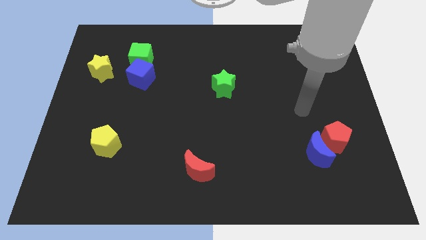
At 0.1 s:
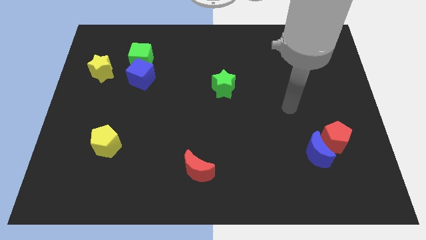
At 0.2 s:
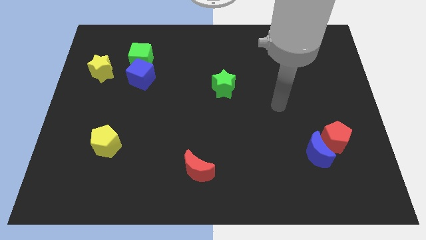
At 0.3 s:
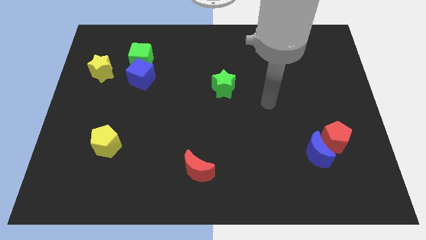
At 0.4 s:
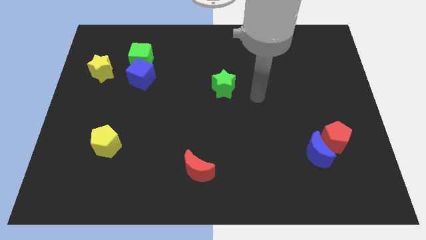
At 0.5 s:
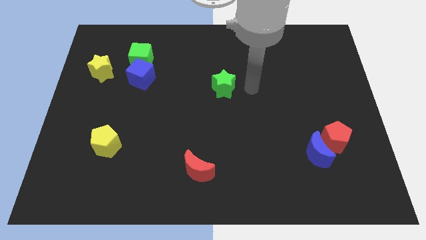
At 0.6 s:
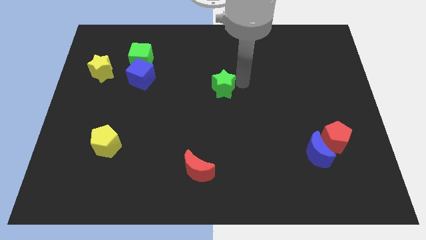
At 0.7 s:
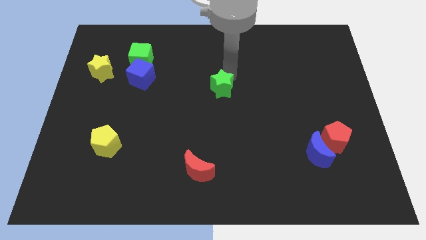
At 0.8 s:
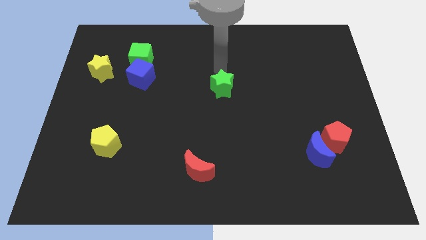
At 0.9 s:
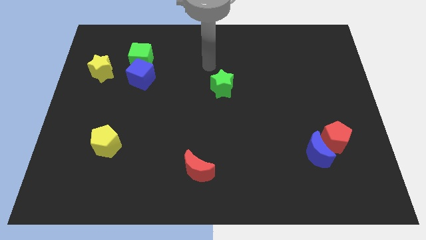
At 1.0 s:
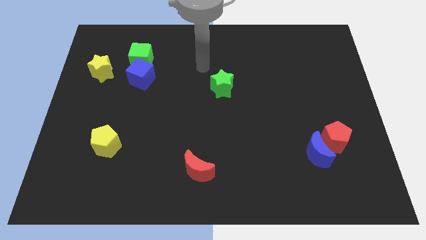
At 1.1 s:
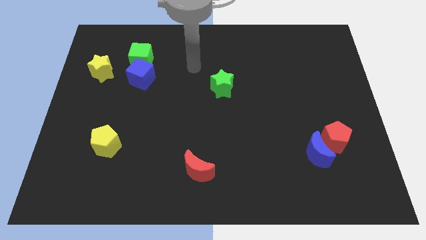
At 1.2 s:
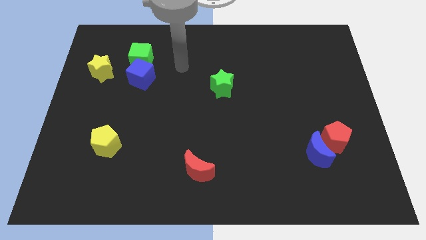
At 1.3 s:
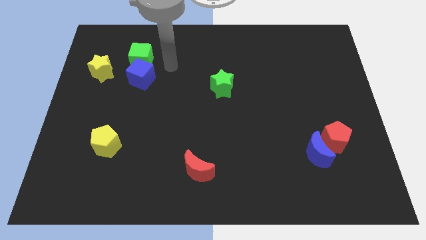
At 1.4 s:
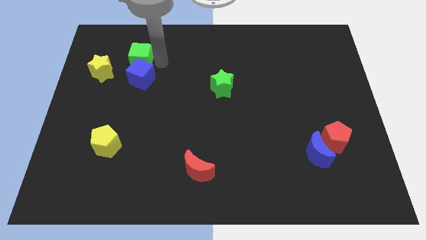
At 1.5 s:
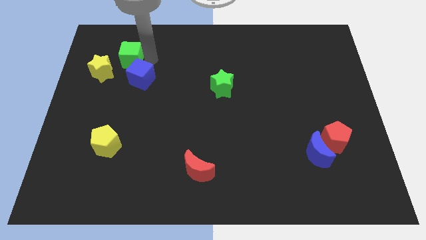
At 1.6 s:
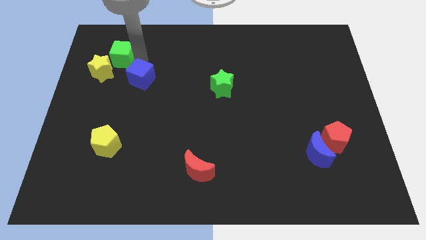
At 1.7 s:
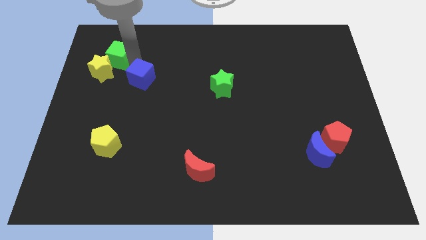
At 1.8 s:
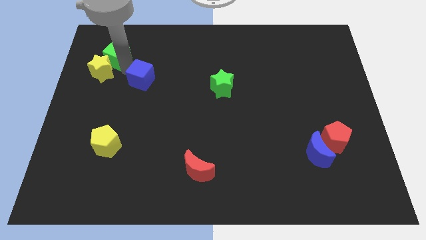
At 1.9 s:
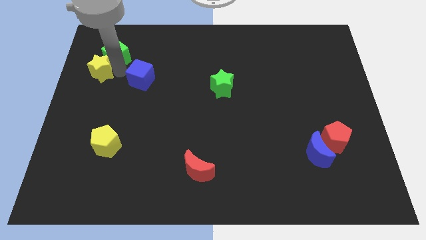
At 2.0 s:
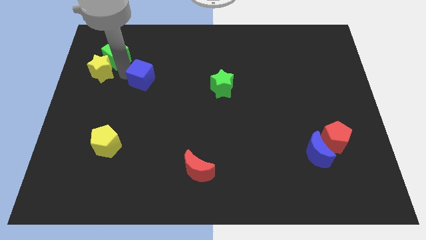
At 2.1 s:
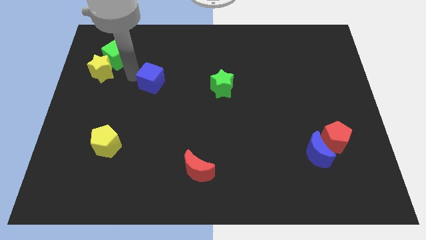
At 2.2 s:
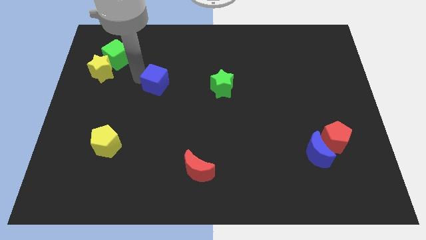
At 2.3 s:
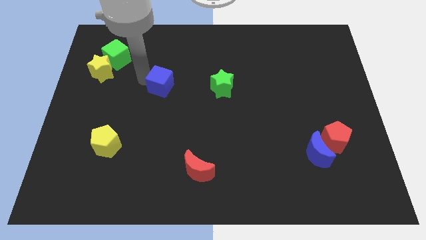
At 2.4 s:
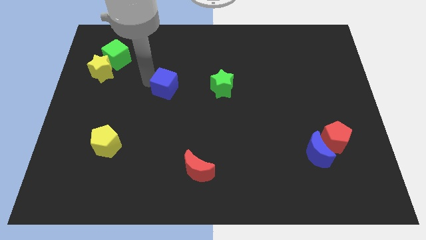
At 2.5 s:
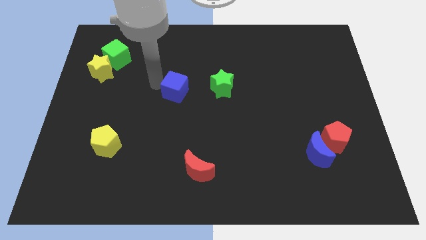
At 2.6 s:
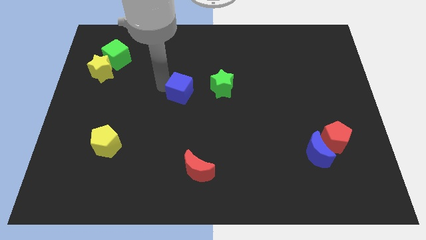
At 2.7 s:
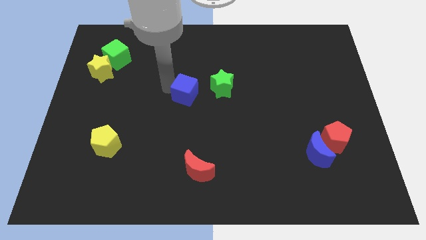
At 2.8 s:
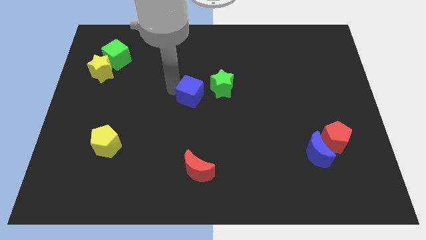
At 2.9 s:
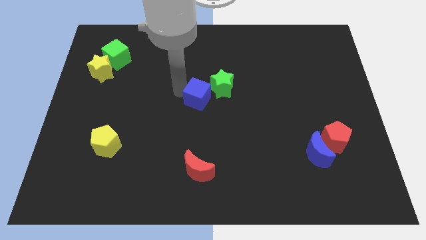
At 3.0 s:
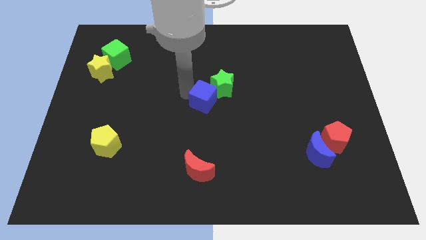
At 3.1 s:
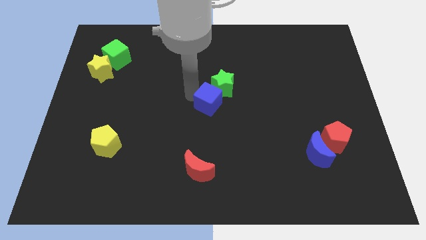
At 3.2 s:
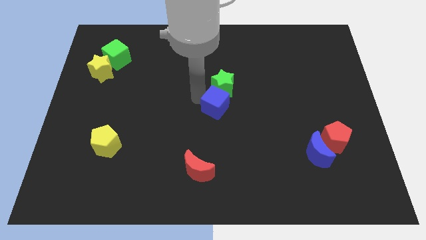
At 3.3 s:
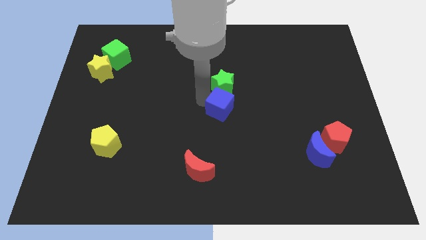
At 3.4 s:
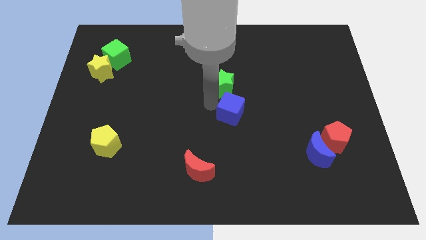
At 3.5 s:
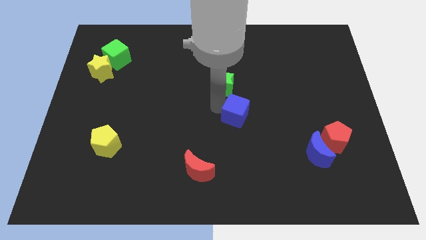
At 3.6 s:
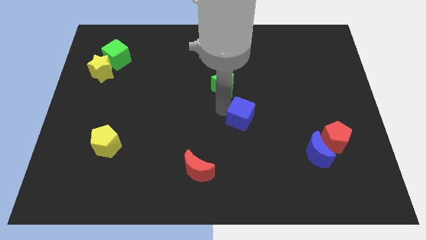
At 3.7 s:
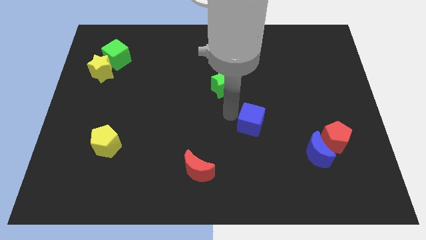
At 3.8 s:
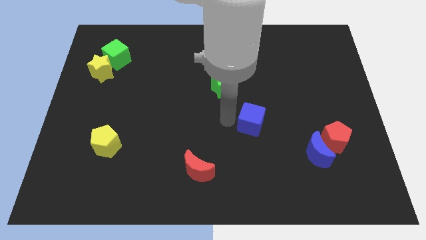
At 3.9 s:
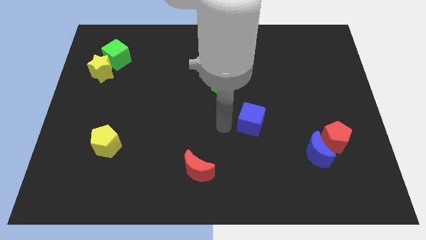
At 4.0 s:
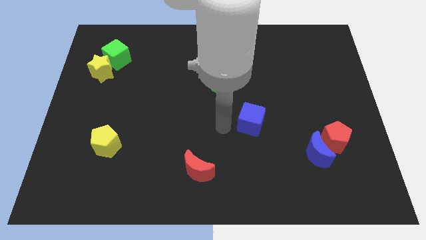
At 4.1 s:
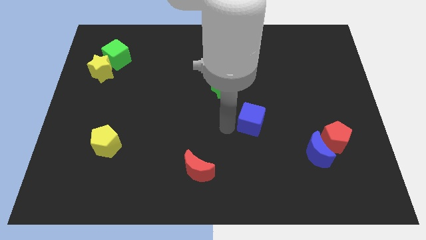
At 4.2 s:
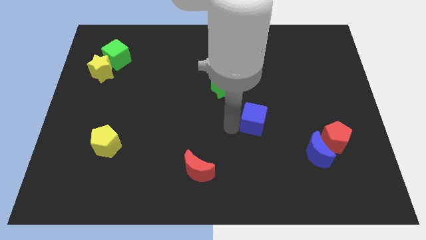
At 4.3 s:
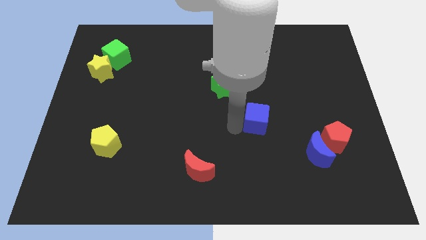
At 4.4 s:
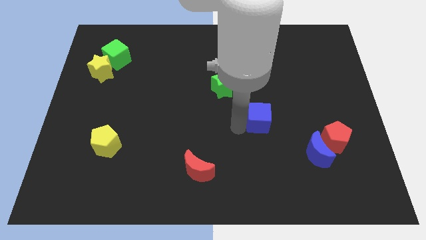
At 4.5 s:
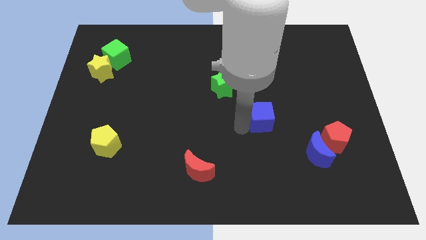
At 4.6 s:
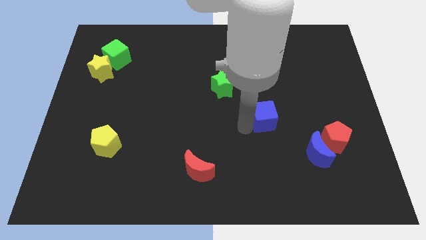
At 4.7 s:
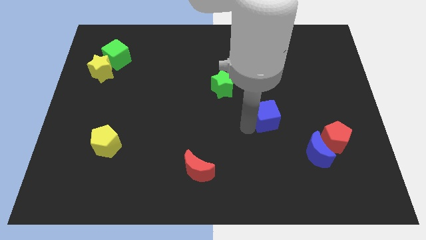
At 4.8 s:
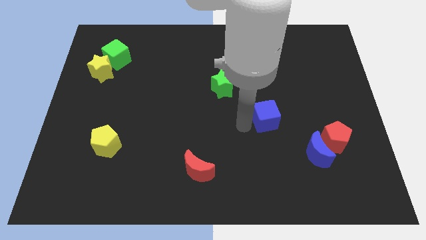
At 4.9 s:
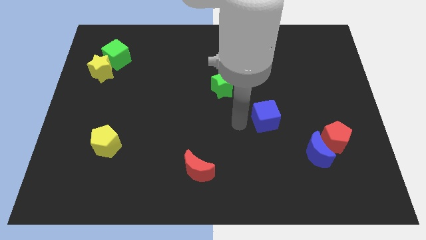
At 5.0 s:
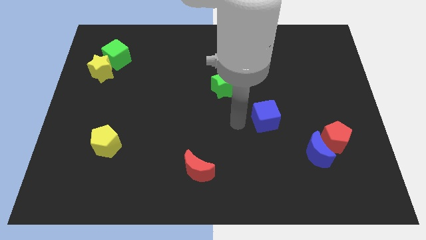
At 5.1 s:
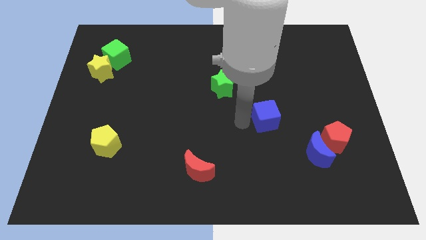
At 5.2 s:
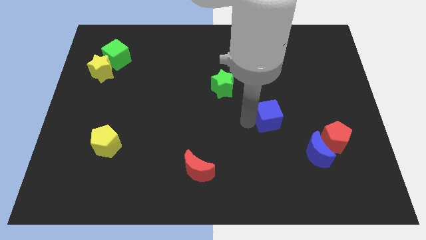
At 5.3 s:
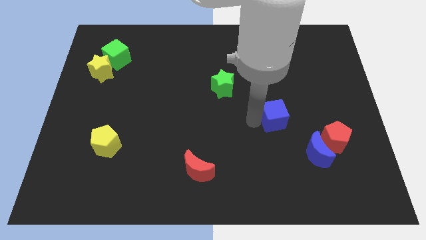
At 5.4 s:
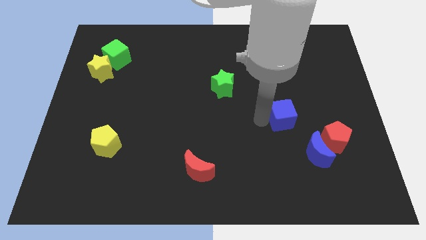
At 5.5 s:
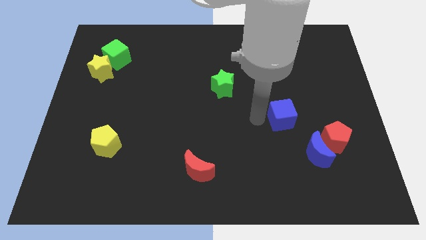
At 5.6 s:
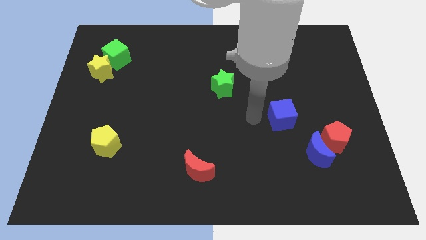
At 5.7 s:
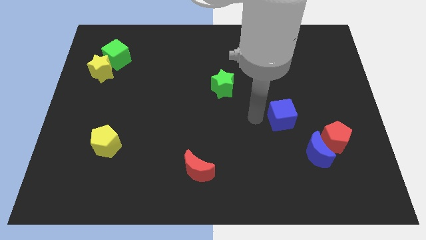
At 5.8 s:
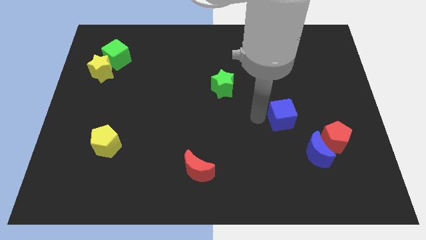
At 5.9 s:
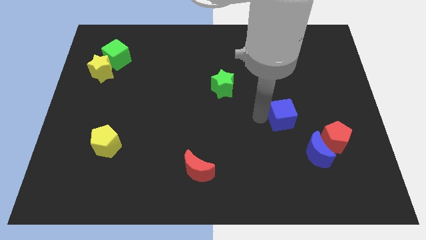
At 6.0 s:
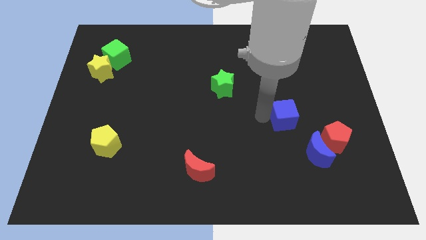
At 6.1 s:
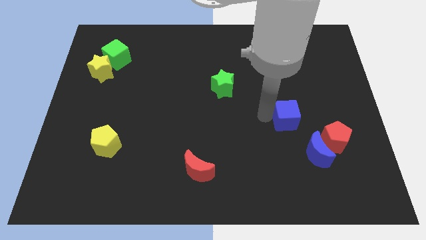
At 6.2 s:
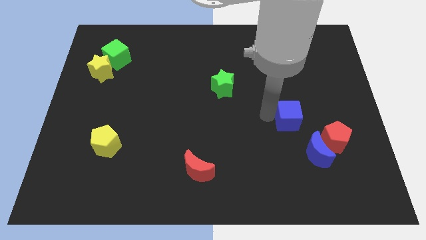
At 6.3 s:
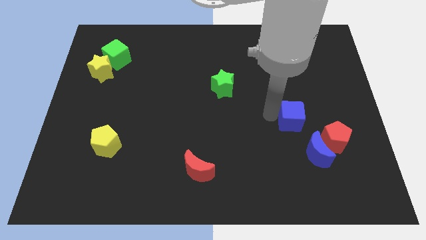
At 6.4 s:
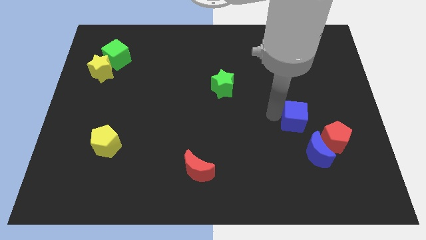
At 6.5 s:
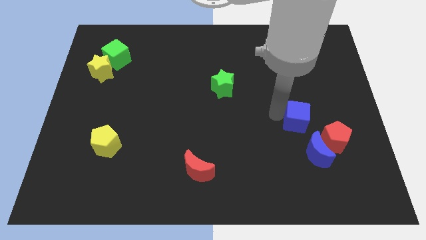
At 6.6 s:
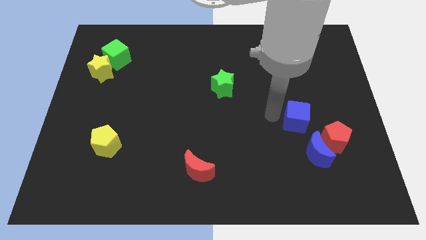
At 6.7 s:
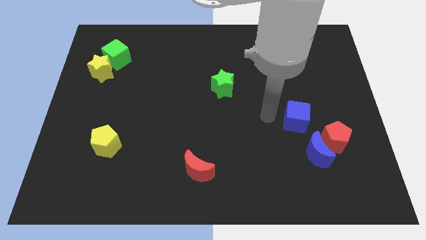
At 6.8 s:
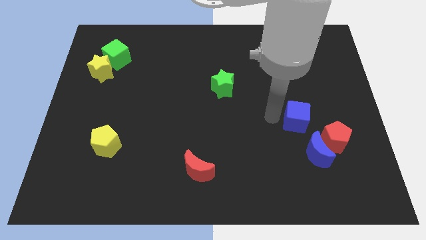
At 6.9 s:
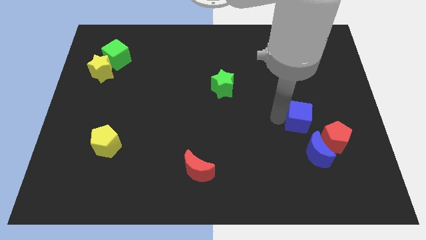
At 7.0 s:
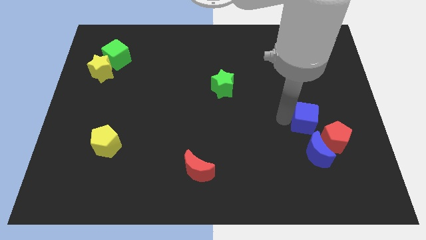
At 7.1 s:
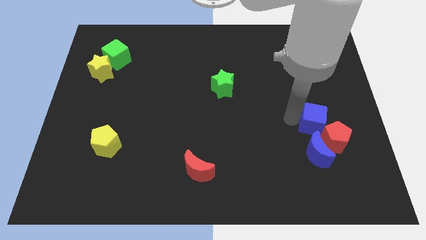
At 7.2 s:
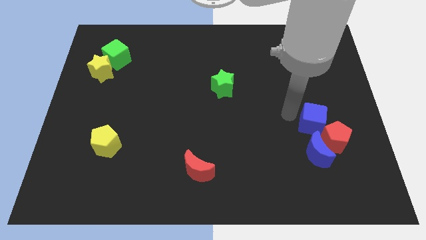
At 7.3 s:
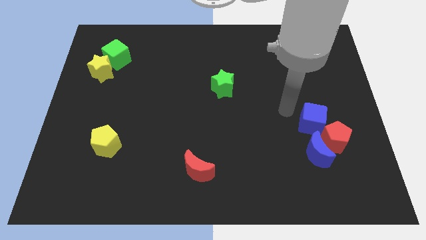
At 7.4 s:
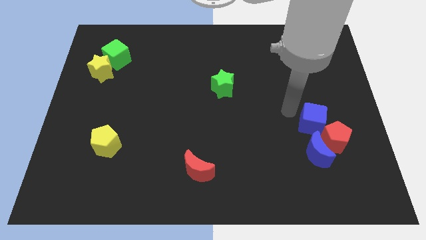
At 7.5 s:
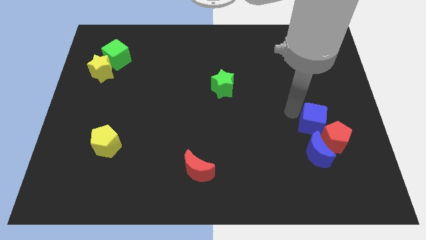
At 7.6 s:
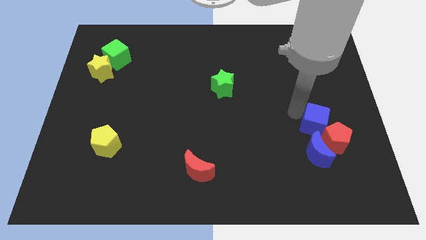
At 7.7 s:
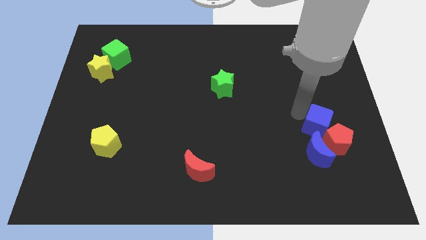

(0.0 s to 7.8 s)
put the blue cube diagonally up and to the right of the blue moon
